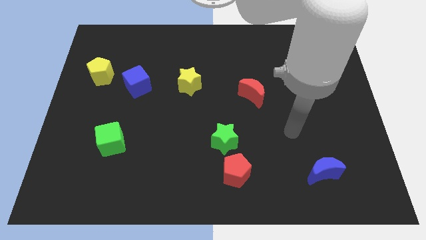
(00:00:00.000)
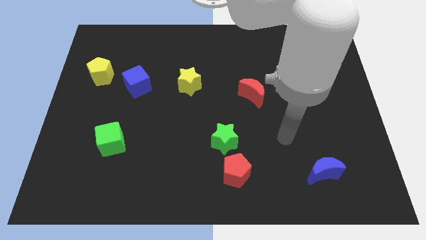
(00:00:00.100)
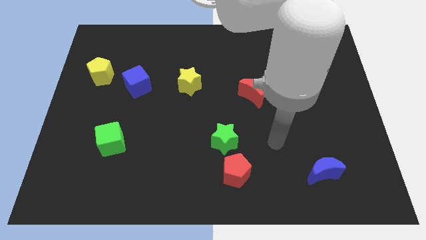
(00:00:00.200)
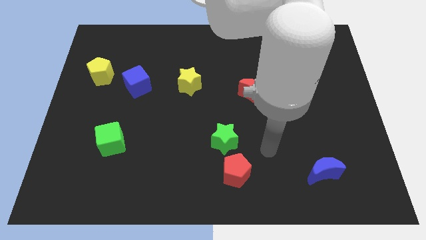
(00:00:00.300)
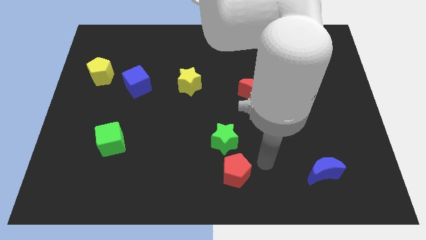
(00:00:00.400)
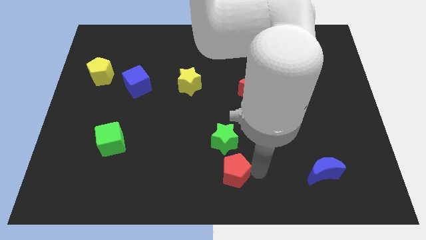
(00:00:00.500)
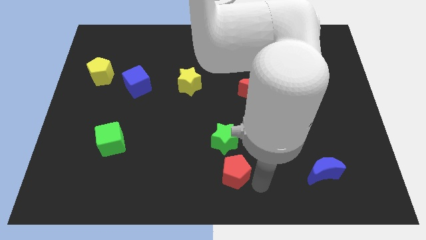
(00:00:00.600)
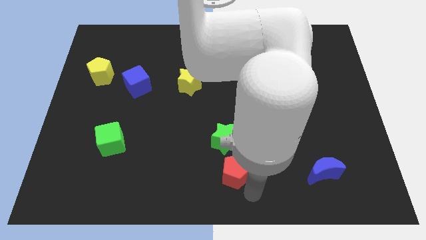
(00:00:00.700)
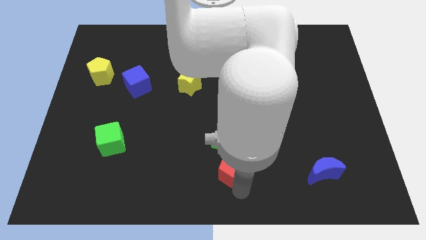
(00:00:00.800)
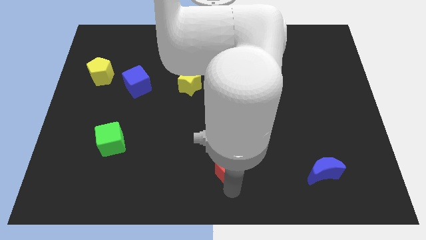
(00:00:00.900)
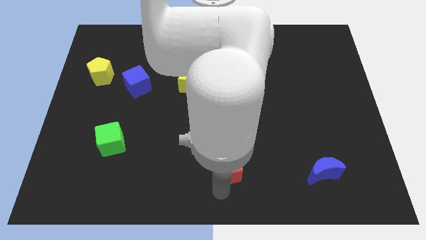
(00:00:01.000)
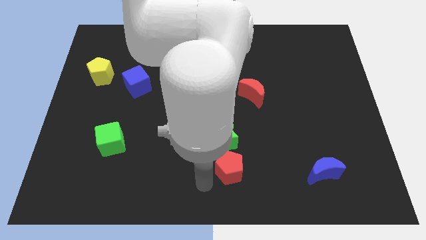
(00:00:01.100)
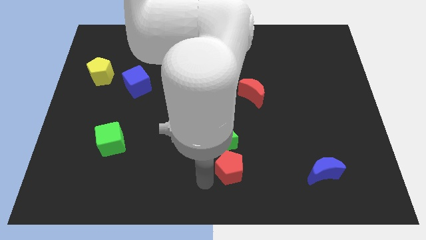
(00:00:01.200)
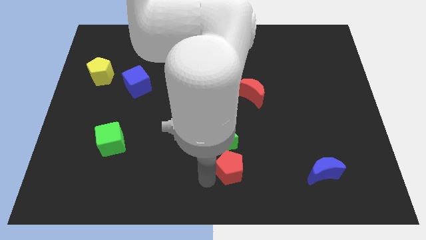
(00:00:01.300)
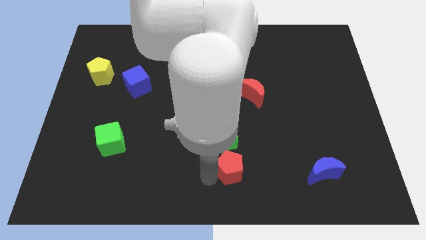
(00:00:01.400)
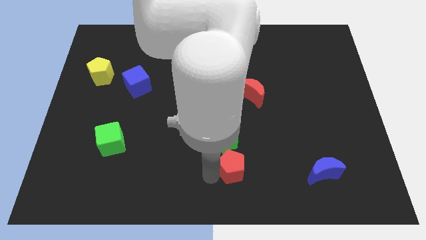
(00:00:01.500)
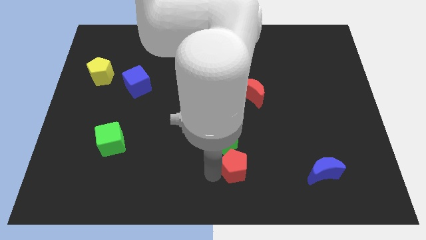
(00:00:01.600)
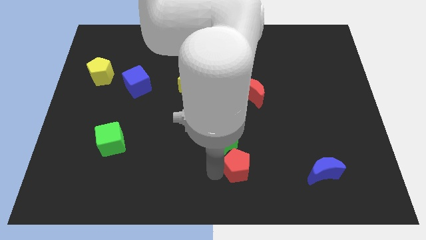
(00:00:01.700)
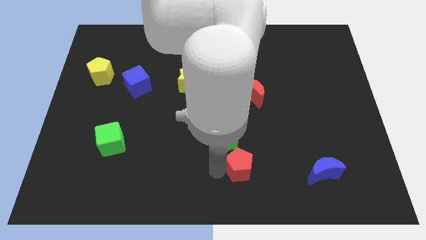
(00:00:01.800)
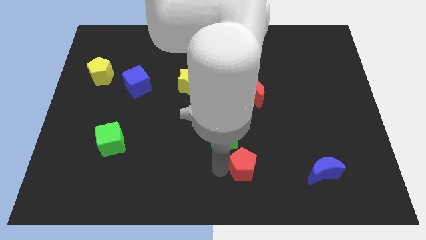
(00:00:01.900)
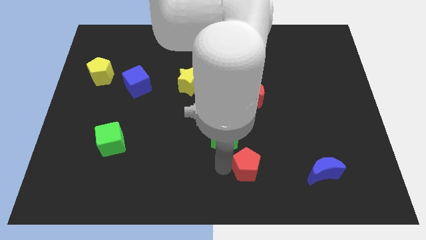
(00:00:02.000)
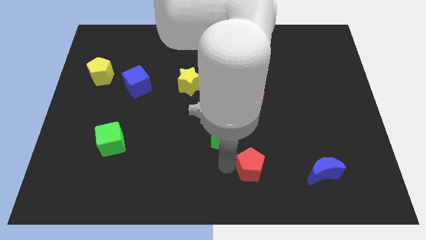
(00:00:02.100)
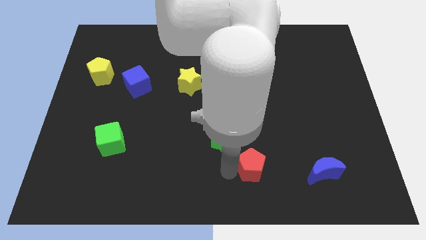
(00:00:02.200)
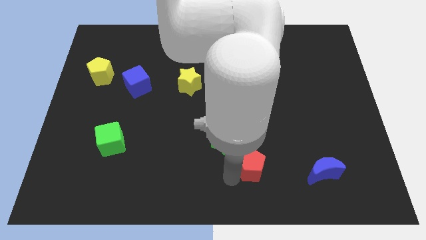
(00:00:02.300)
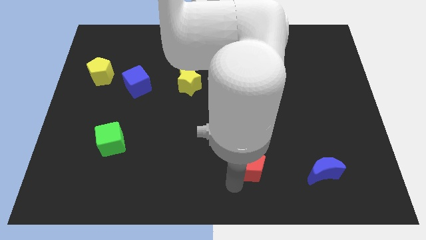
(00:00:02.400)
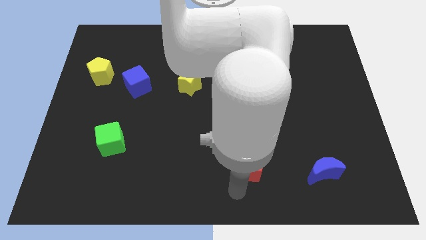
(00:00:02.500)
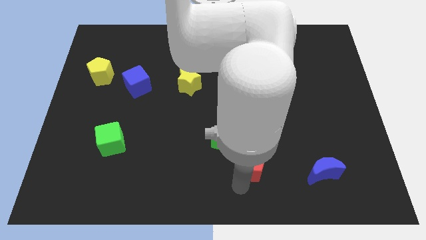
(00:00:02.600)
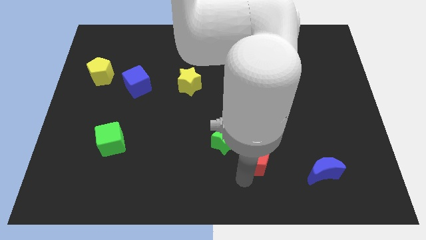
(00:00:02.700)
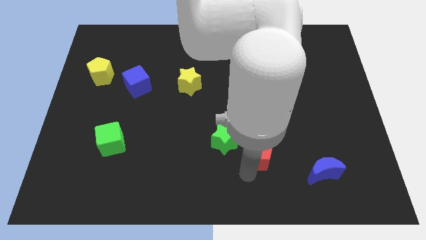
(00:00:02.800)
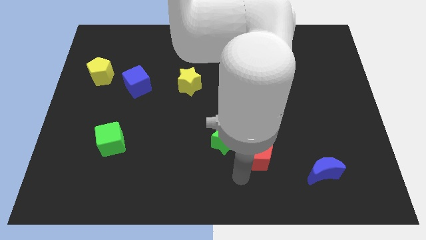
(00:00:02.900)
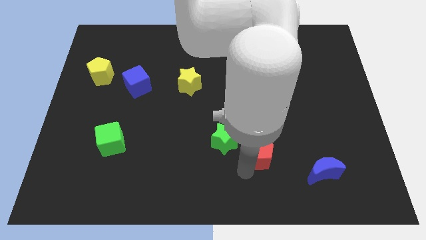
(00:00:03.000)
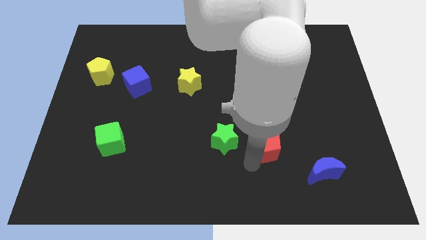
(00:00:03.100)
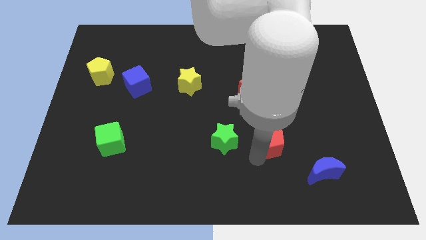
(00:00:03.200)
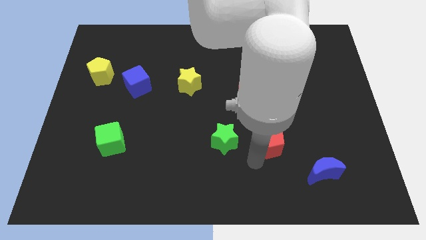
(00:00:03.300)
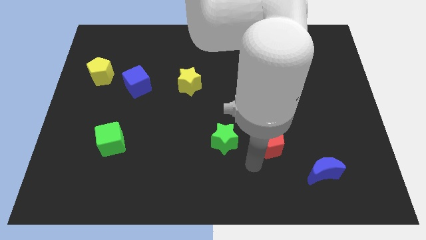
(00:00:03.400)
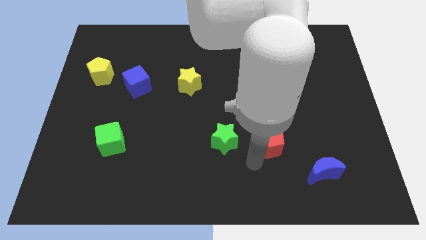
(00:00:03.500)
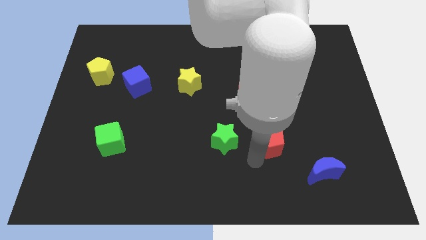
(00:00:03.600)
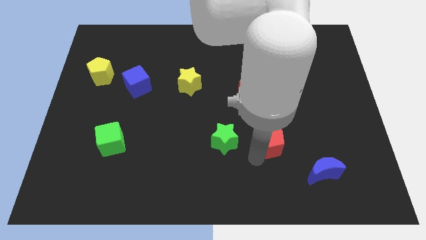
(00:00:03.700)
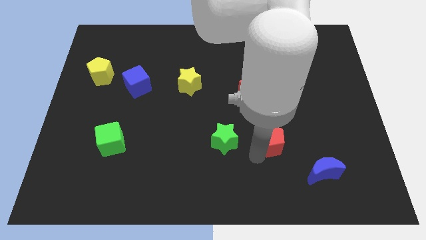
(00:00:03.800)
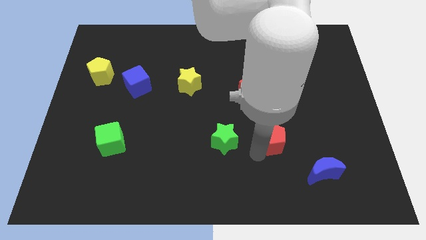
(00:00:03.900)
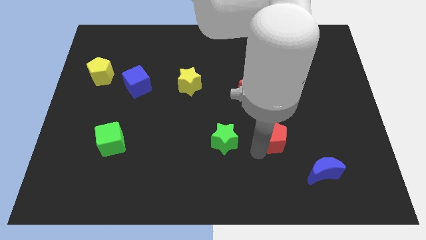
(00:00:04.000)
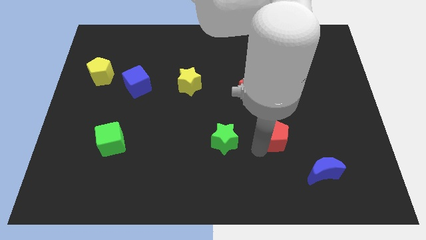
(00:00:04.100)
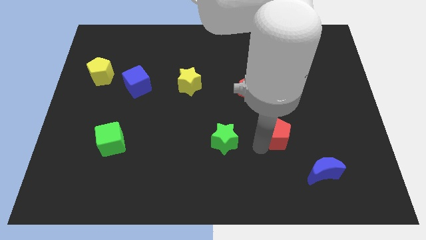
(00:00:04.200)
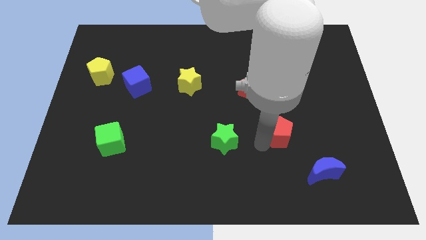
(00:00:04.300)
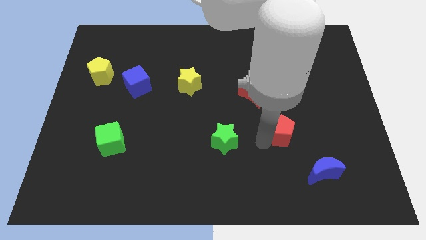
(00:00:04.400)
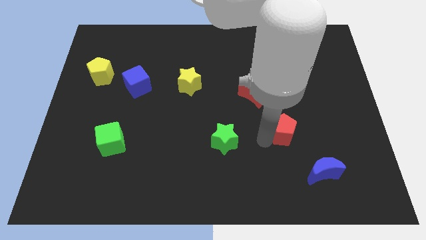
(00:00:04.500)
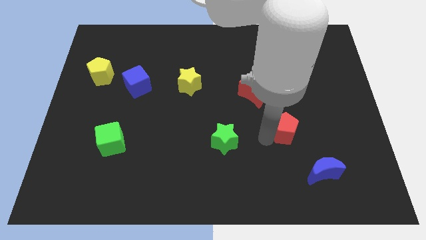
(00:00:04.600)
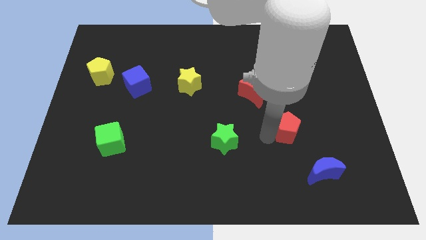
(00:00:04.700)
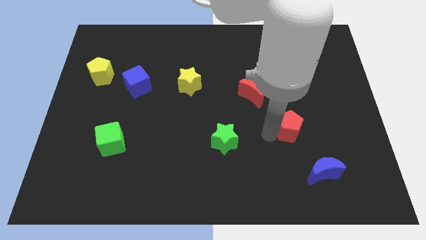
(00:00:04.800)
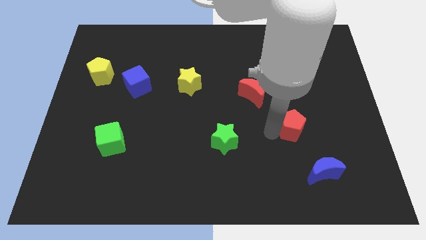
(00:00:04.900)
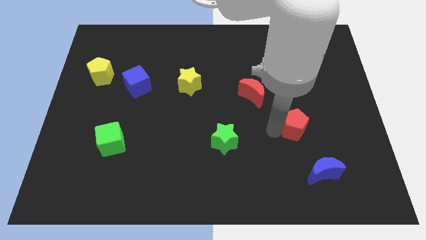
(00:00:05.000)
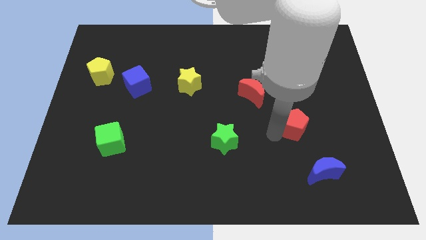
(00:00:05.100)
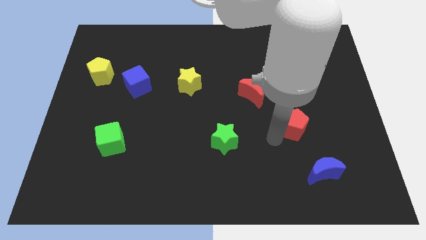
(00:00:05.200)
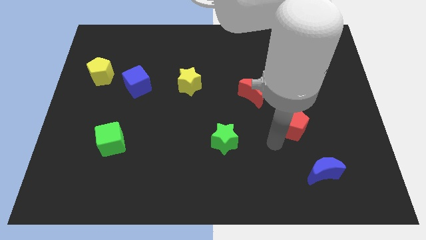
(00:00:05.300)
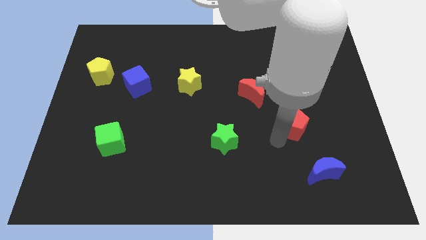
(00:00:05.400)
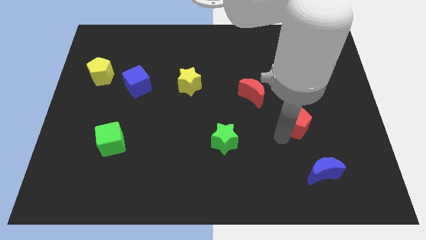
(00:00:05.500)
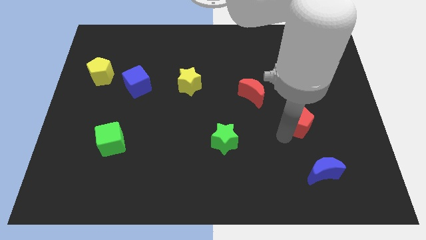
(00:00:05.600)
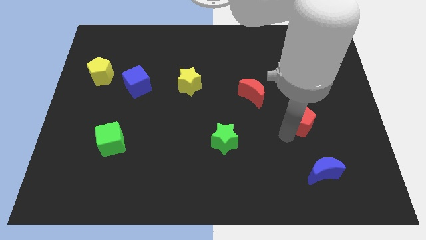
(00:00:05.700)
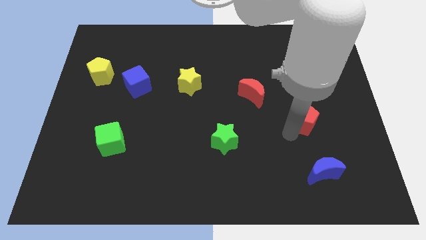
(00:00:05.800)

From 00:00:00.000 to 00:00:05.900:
move the red pentagon upwards and right

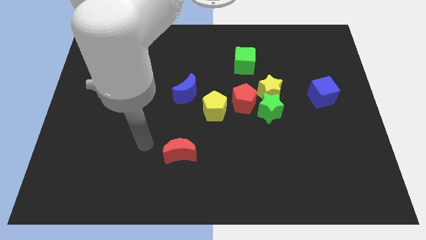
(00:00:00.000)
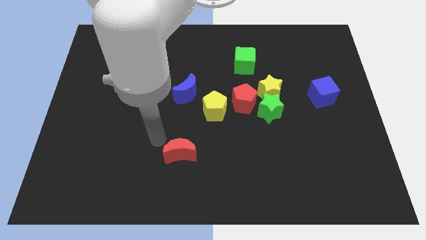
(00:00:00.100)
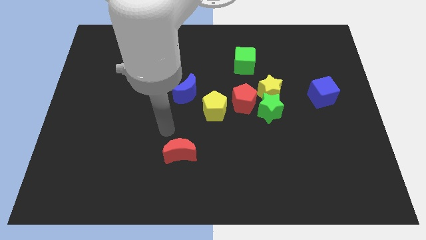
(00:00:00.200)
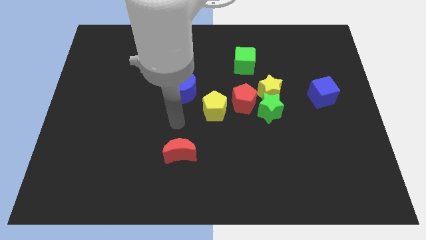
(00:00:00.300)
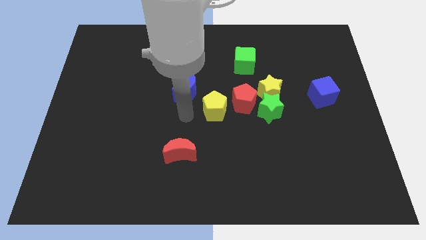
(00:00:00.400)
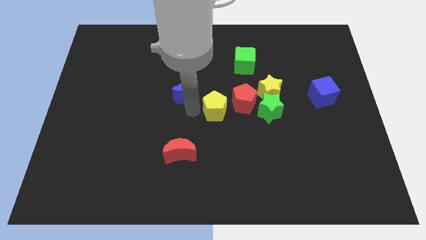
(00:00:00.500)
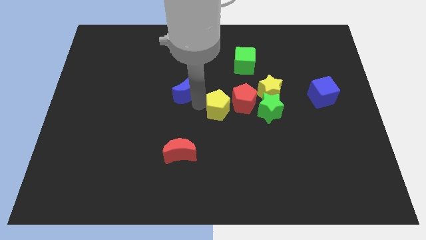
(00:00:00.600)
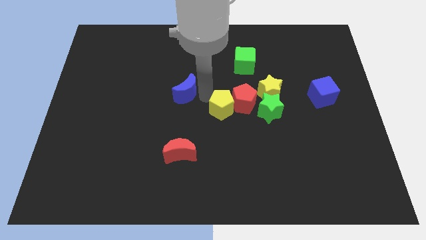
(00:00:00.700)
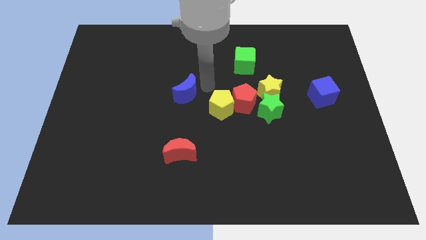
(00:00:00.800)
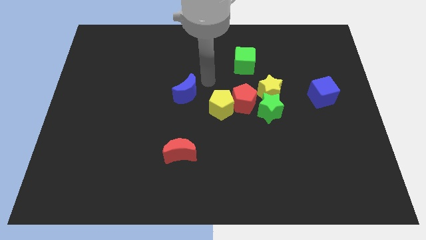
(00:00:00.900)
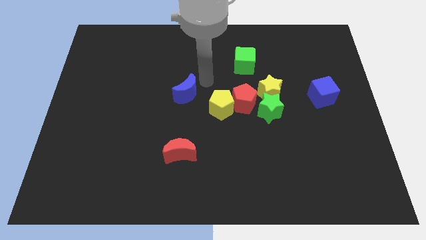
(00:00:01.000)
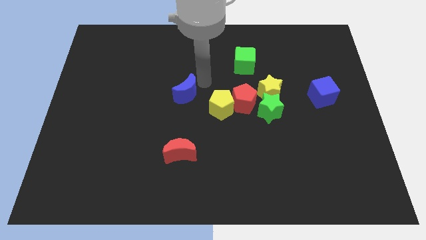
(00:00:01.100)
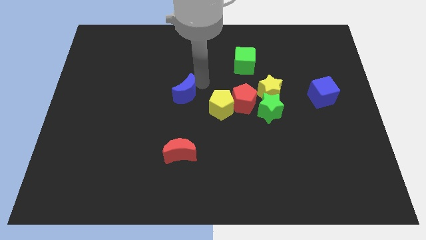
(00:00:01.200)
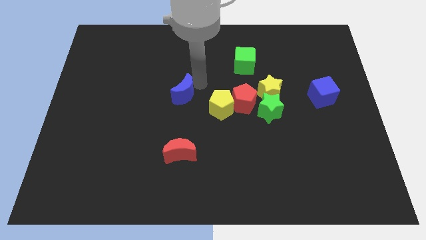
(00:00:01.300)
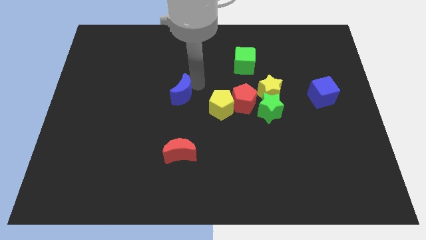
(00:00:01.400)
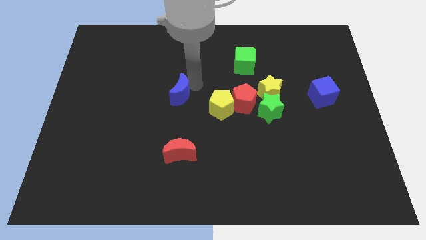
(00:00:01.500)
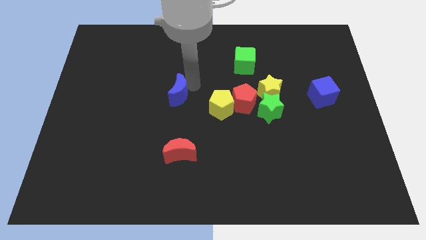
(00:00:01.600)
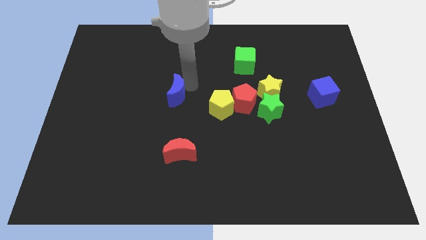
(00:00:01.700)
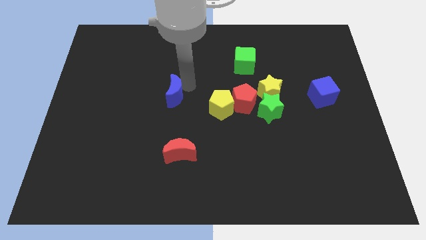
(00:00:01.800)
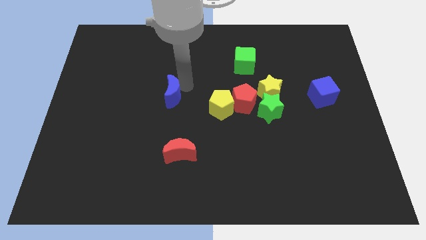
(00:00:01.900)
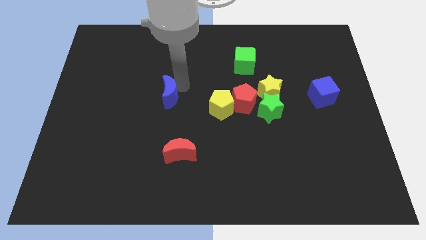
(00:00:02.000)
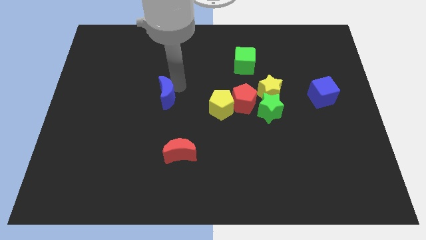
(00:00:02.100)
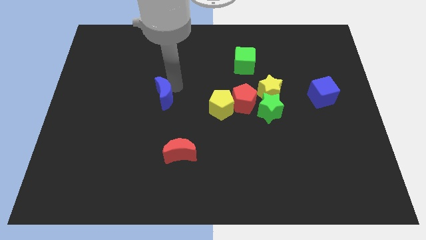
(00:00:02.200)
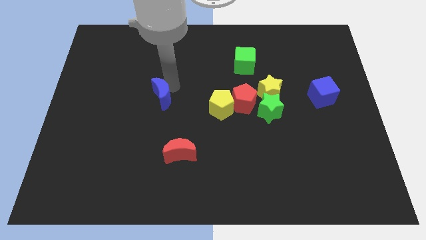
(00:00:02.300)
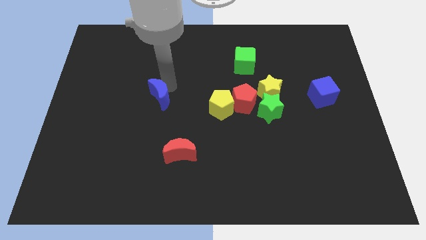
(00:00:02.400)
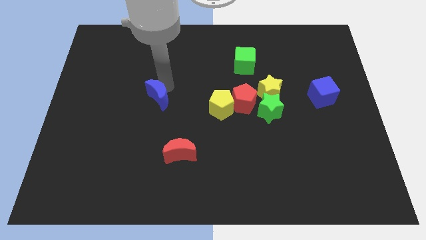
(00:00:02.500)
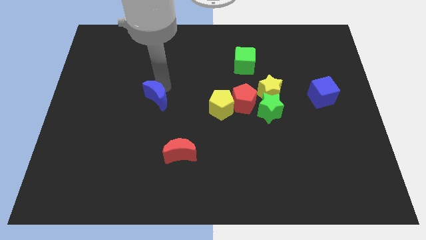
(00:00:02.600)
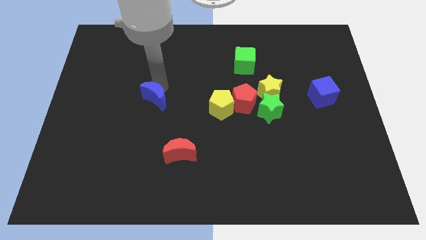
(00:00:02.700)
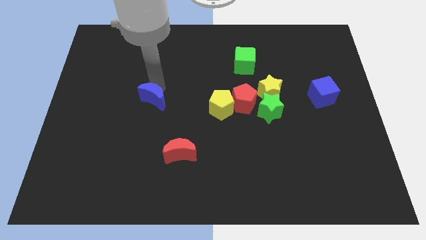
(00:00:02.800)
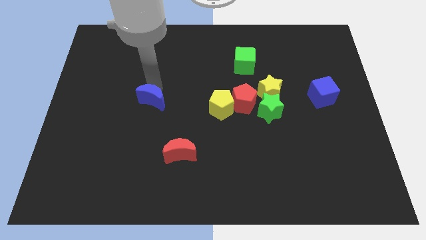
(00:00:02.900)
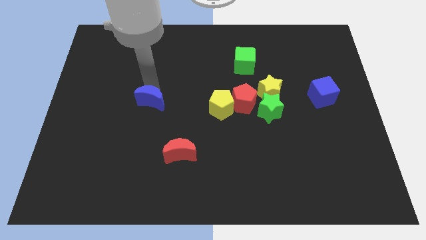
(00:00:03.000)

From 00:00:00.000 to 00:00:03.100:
move the blue moon diagonally downwards and left a little
